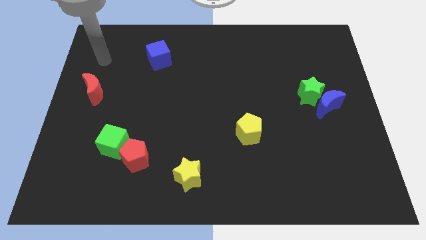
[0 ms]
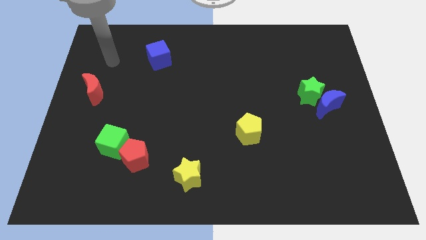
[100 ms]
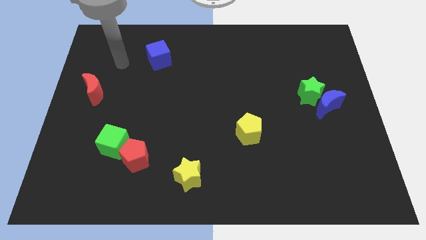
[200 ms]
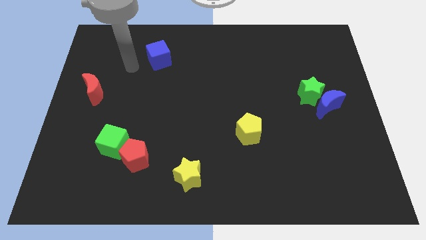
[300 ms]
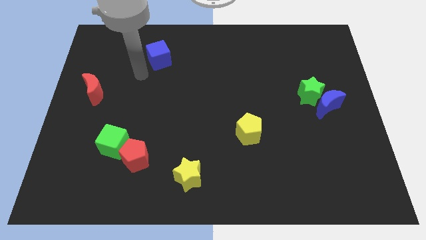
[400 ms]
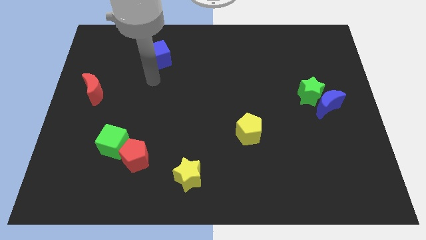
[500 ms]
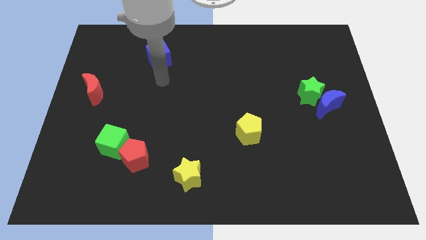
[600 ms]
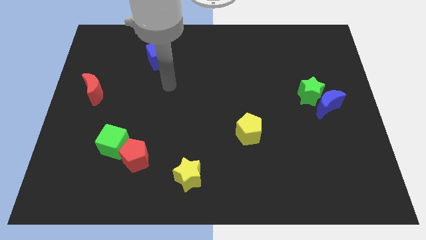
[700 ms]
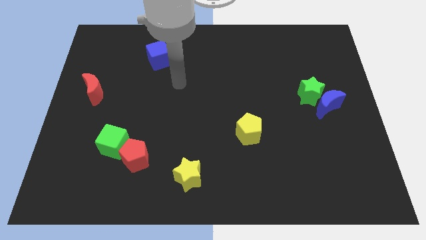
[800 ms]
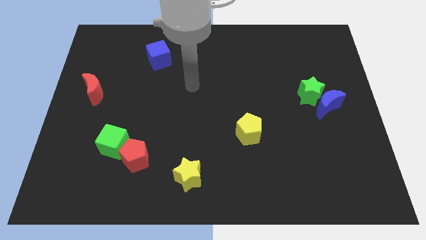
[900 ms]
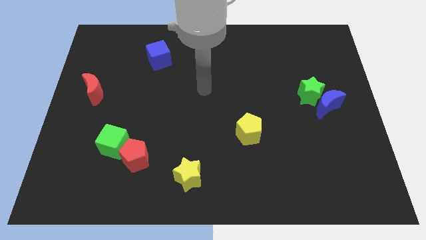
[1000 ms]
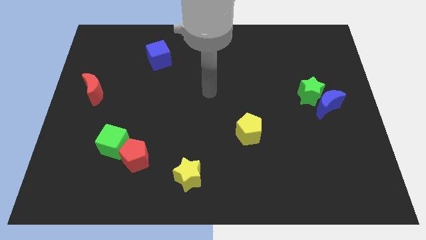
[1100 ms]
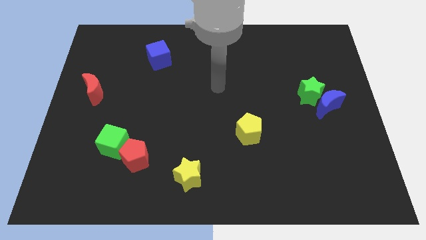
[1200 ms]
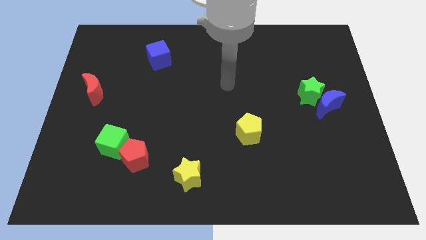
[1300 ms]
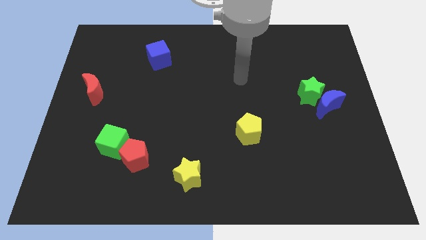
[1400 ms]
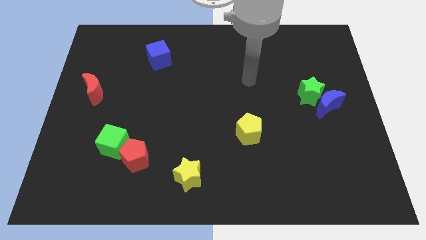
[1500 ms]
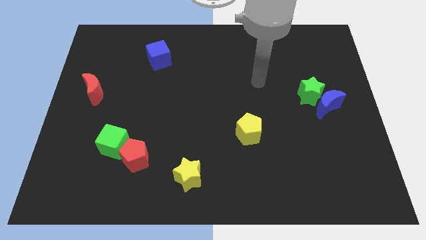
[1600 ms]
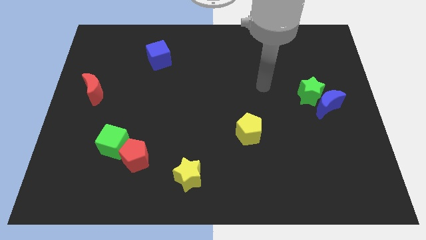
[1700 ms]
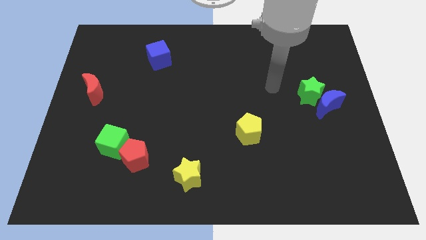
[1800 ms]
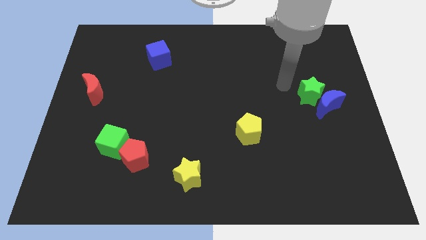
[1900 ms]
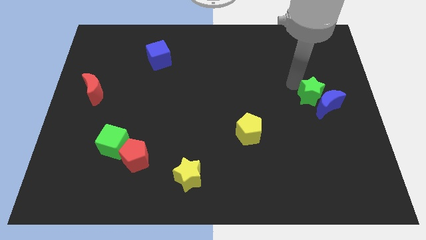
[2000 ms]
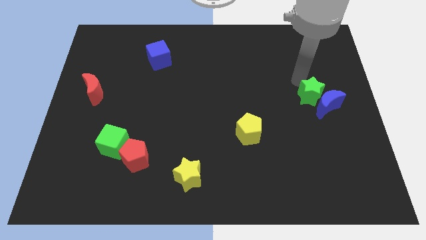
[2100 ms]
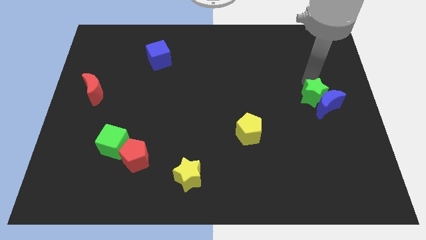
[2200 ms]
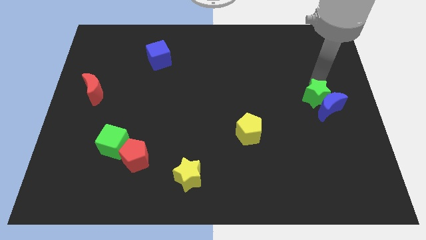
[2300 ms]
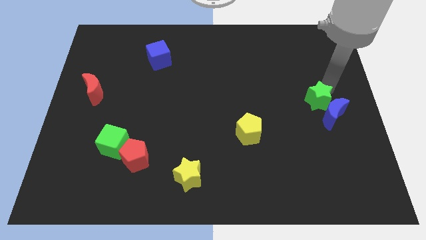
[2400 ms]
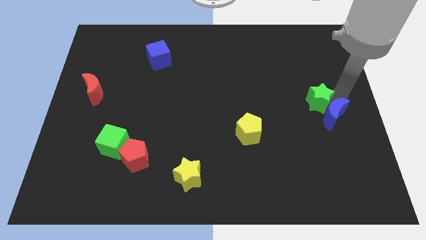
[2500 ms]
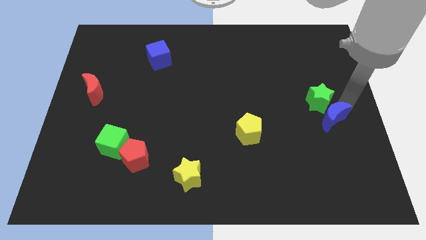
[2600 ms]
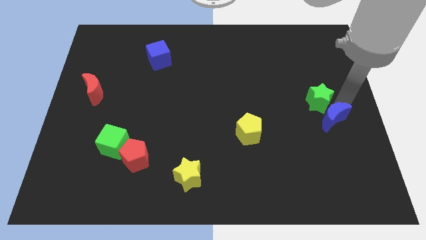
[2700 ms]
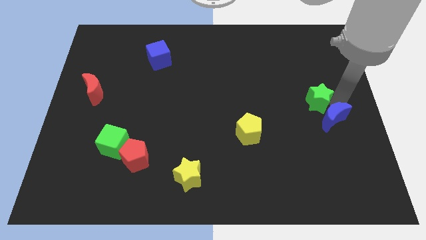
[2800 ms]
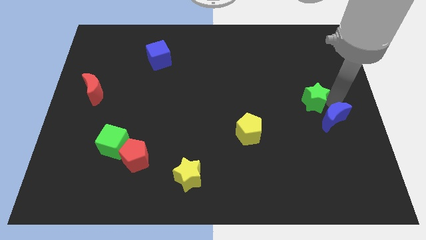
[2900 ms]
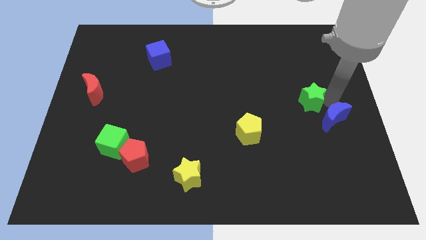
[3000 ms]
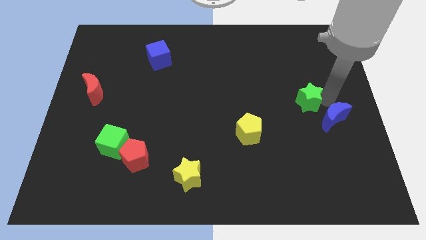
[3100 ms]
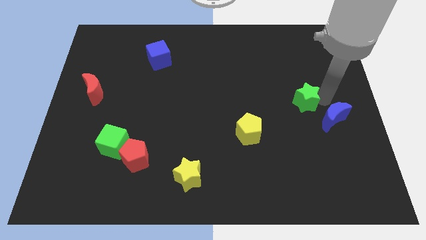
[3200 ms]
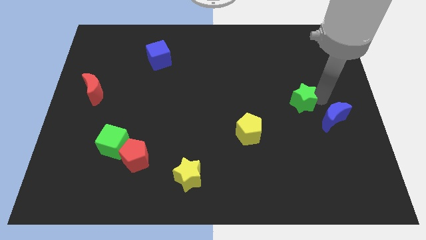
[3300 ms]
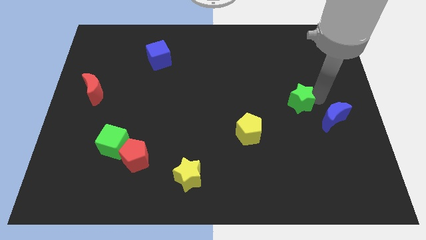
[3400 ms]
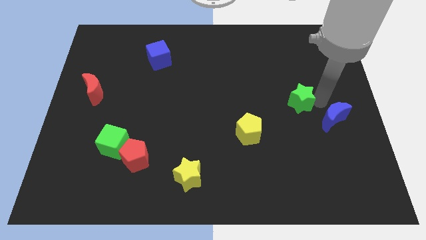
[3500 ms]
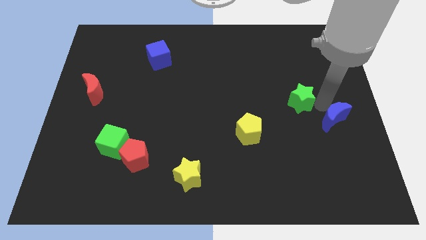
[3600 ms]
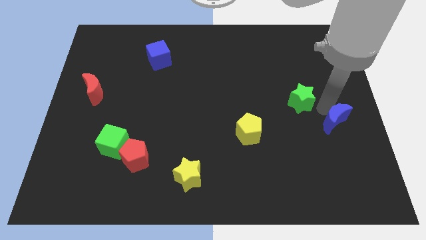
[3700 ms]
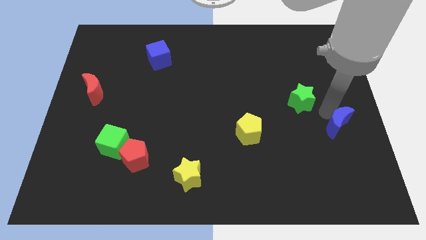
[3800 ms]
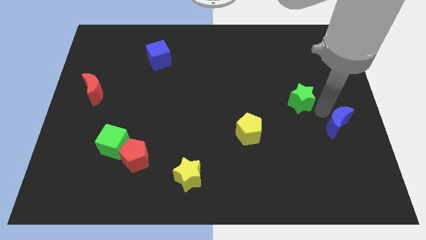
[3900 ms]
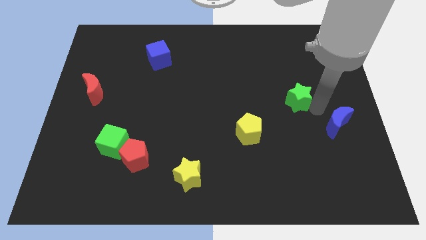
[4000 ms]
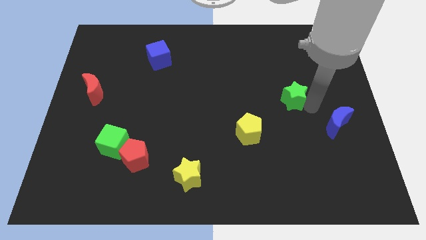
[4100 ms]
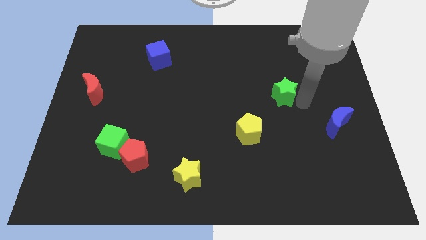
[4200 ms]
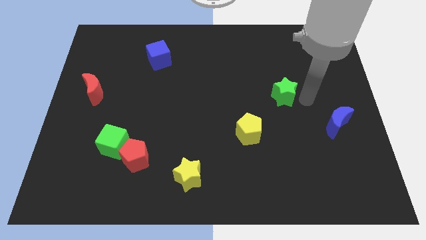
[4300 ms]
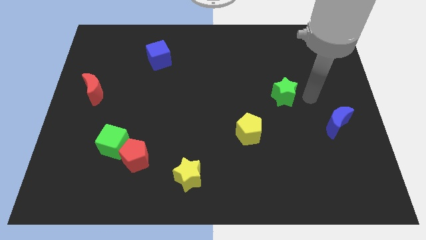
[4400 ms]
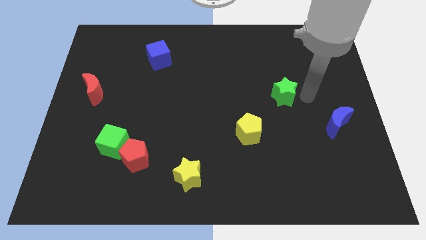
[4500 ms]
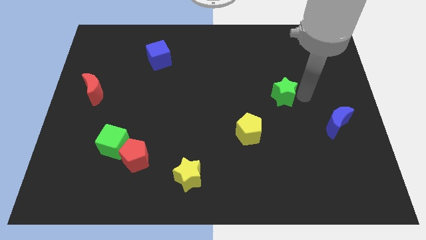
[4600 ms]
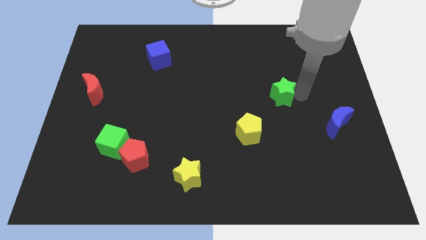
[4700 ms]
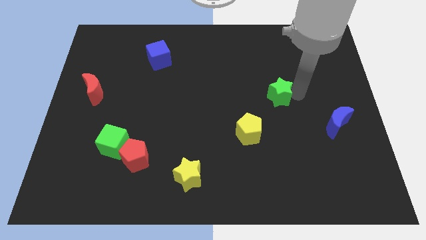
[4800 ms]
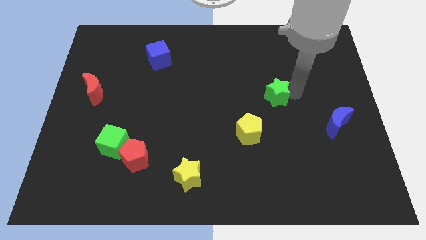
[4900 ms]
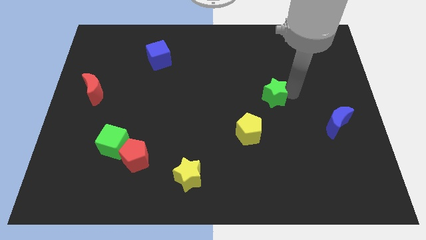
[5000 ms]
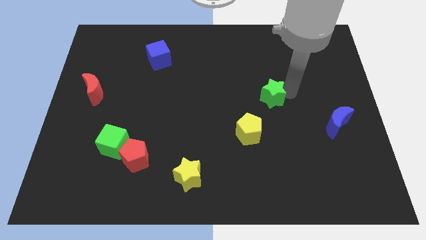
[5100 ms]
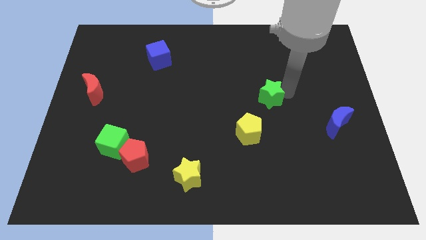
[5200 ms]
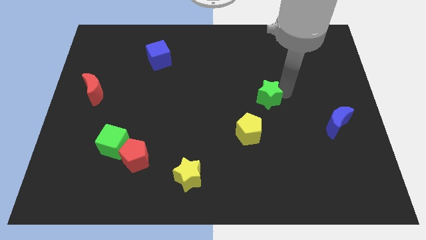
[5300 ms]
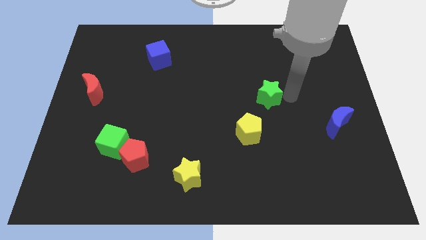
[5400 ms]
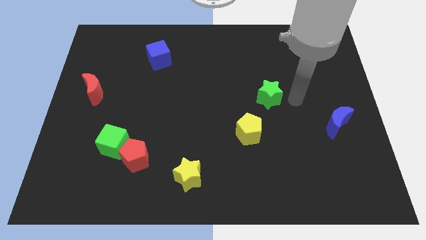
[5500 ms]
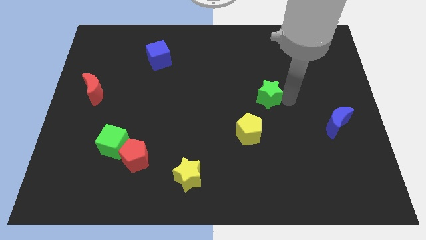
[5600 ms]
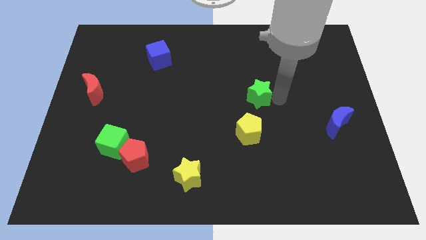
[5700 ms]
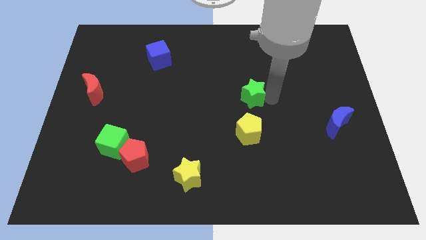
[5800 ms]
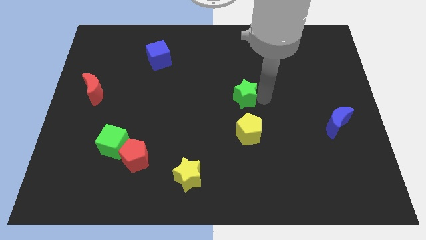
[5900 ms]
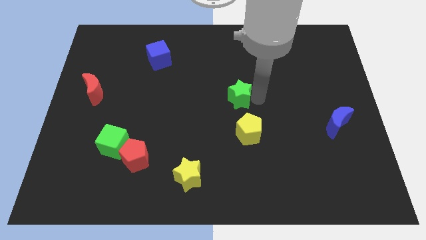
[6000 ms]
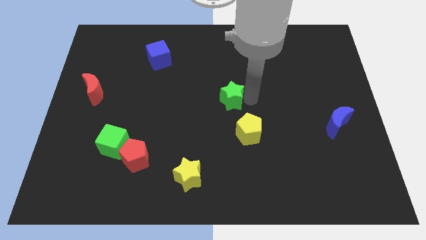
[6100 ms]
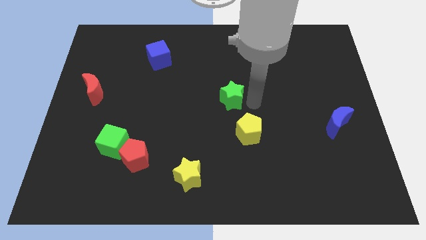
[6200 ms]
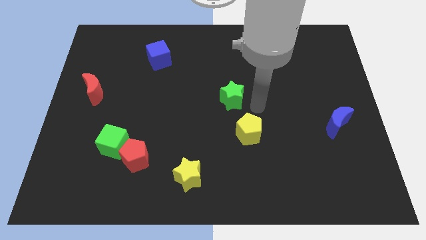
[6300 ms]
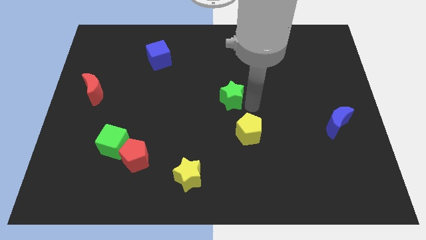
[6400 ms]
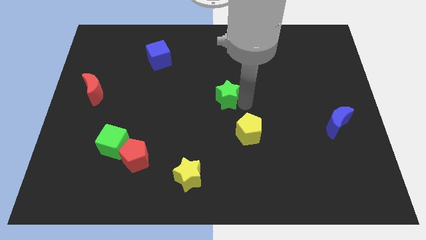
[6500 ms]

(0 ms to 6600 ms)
move the green star left

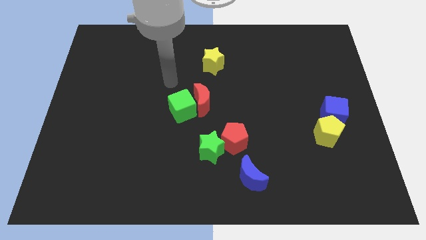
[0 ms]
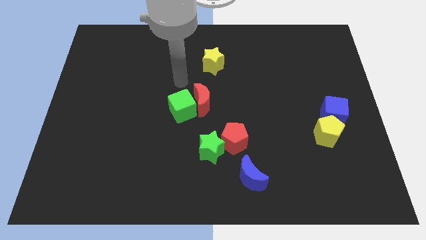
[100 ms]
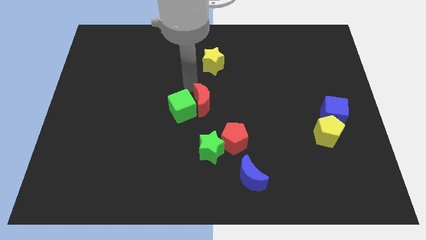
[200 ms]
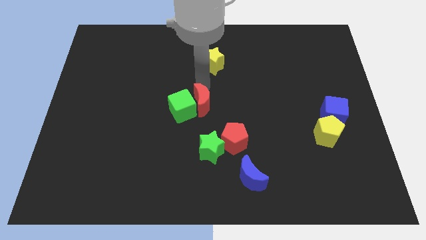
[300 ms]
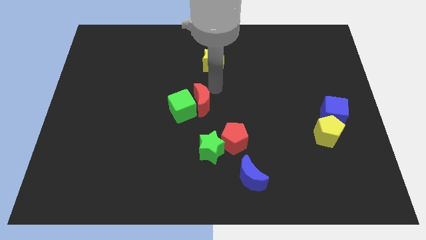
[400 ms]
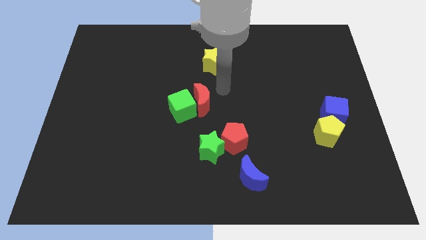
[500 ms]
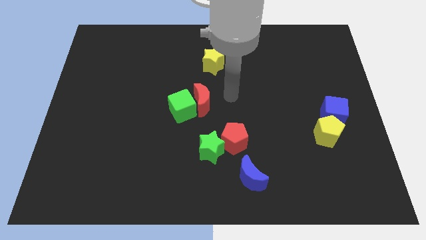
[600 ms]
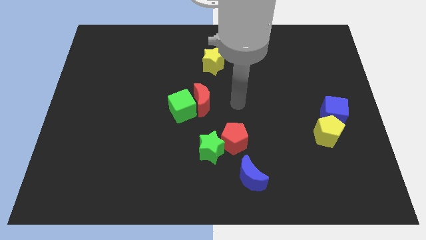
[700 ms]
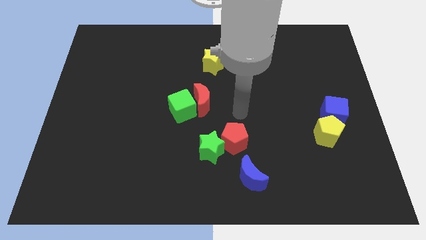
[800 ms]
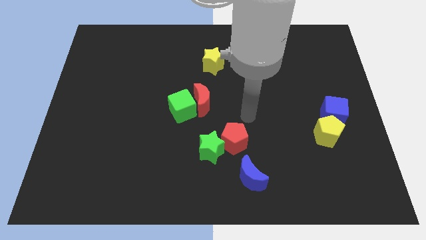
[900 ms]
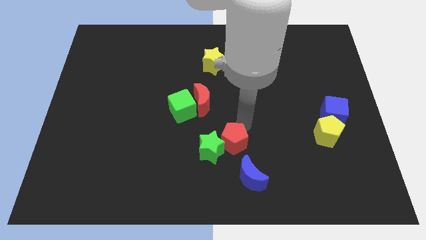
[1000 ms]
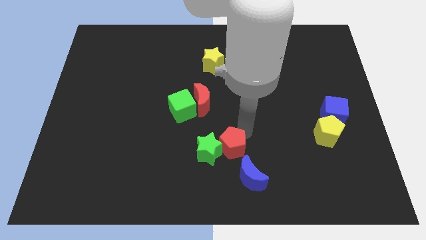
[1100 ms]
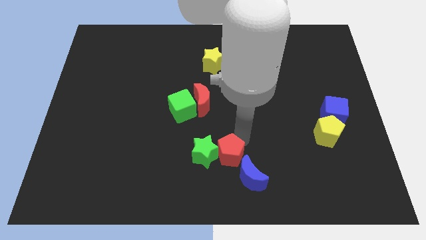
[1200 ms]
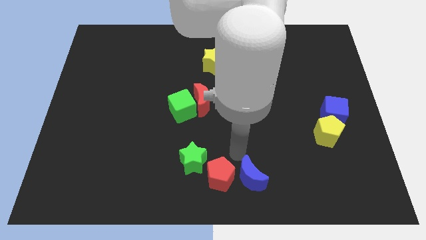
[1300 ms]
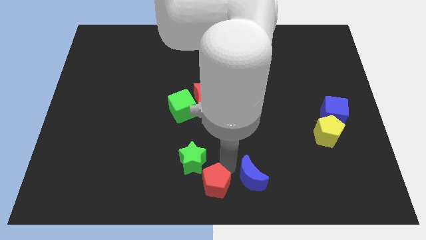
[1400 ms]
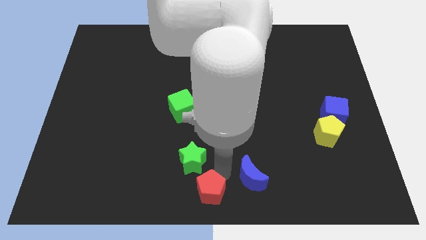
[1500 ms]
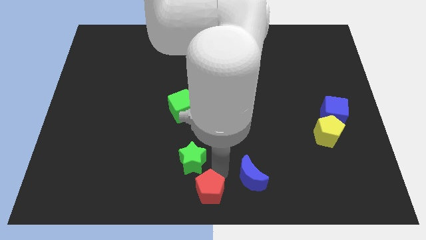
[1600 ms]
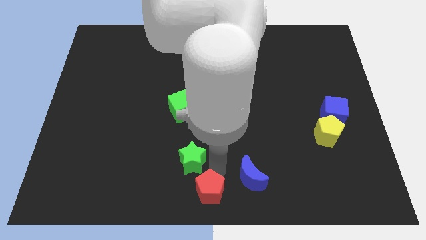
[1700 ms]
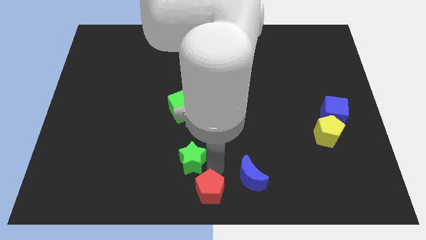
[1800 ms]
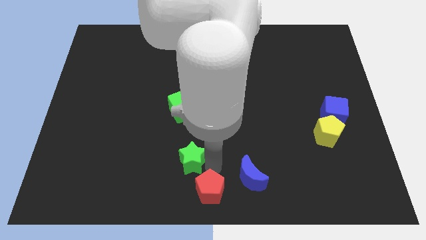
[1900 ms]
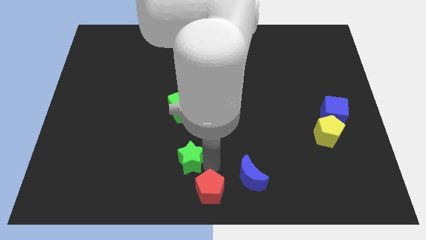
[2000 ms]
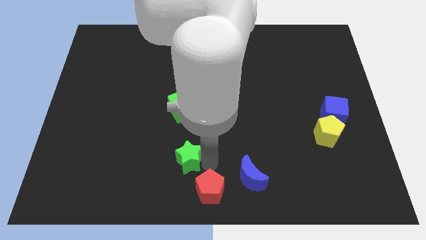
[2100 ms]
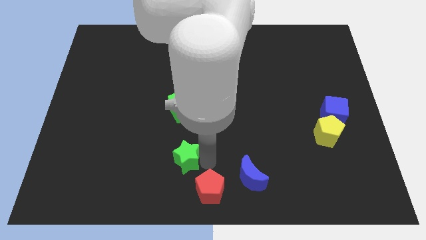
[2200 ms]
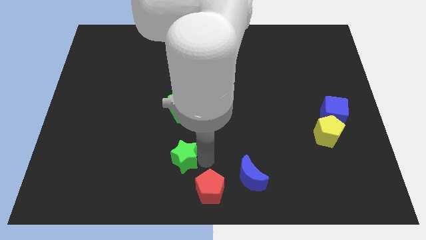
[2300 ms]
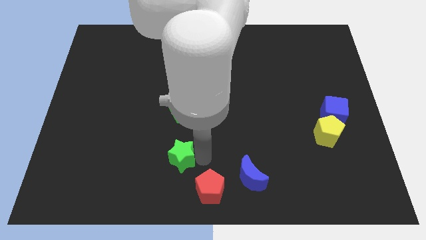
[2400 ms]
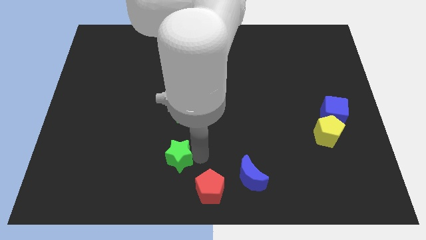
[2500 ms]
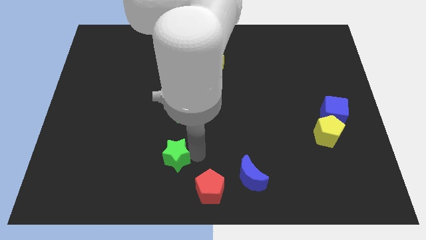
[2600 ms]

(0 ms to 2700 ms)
slightly slide the green star left
